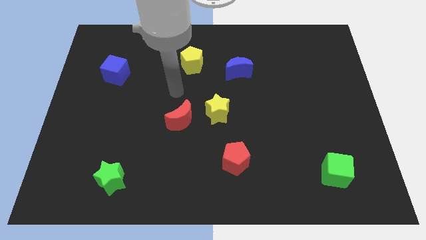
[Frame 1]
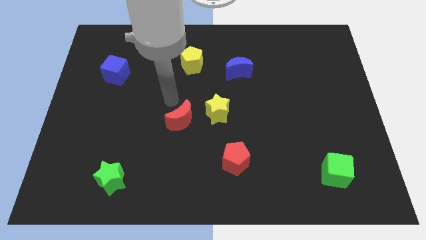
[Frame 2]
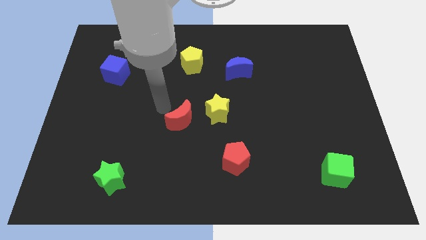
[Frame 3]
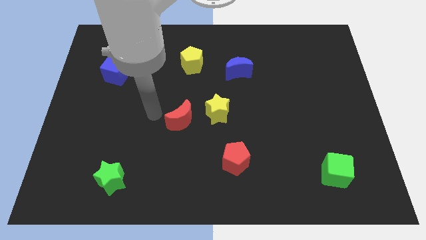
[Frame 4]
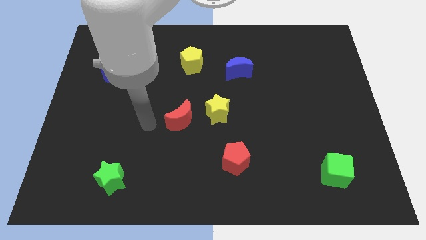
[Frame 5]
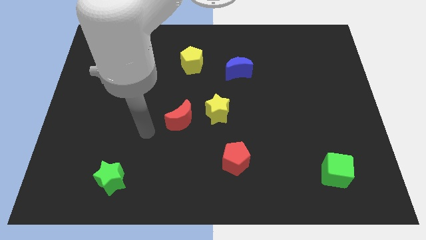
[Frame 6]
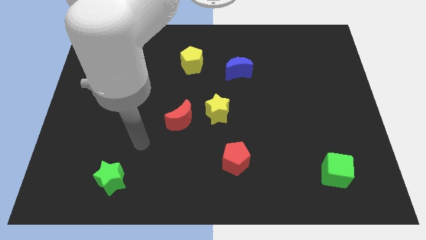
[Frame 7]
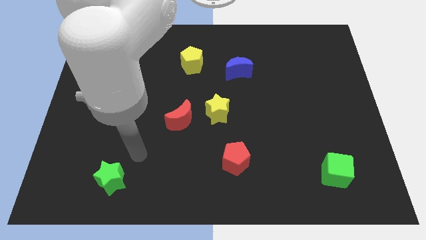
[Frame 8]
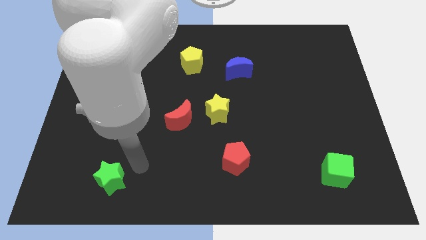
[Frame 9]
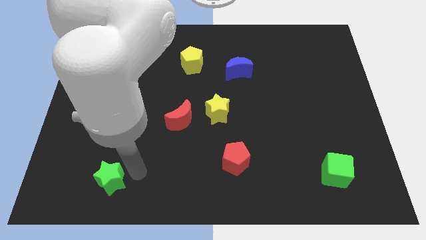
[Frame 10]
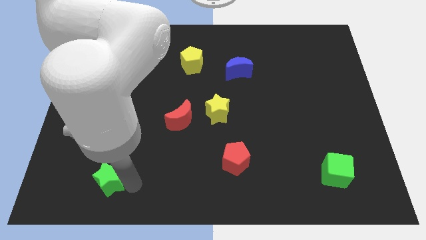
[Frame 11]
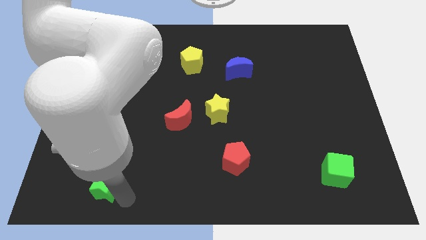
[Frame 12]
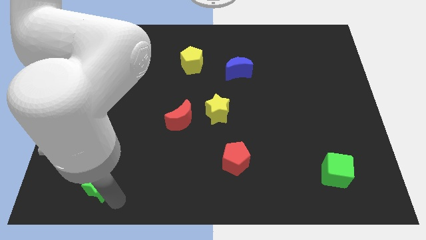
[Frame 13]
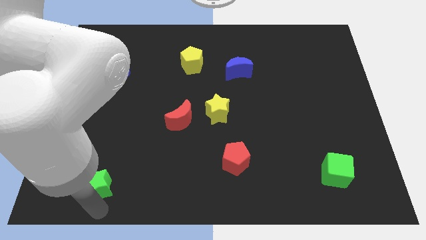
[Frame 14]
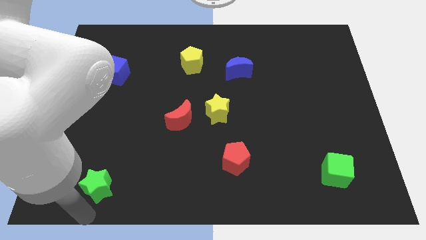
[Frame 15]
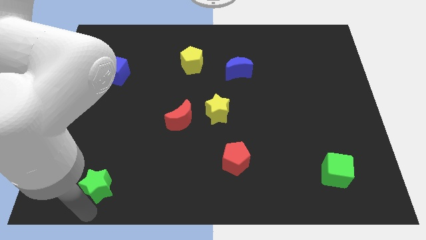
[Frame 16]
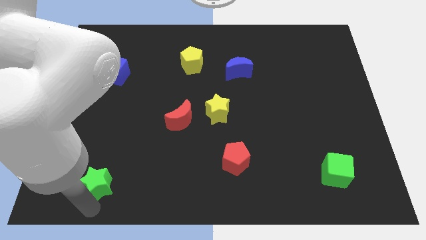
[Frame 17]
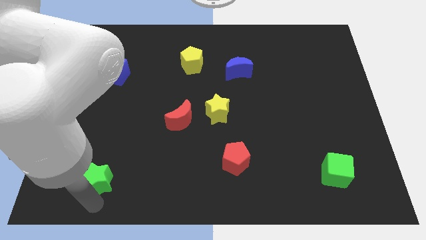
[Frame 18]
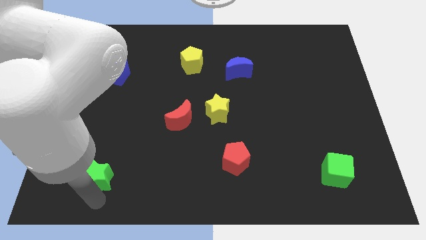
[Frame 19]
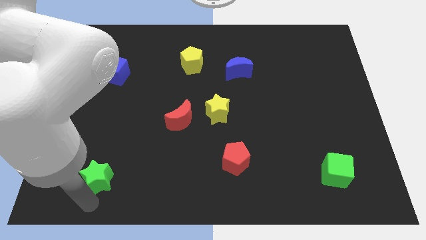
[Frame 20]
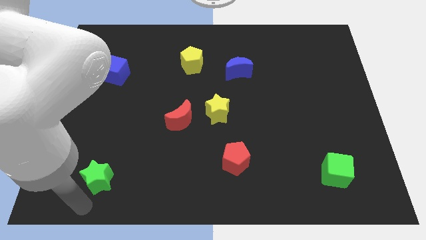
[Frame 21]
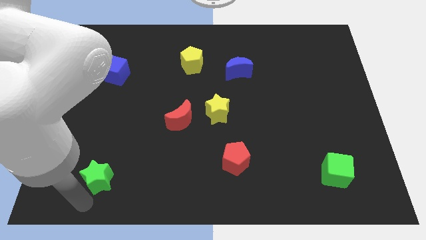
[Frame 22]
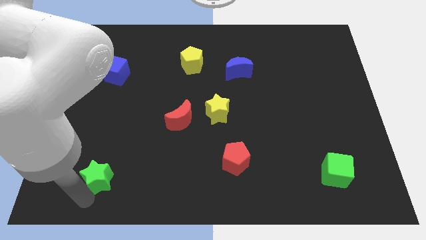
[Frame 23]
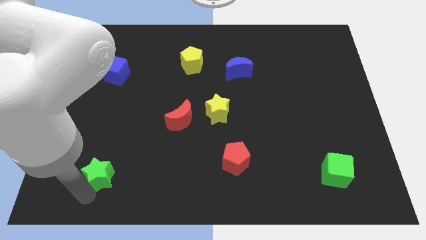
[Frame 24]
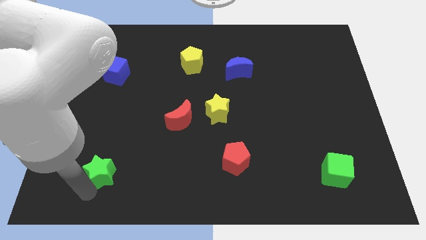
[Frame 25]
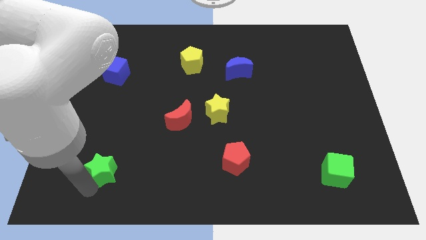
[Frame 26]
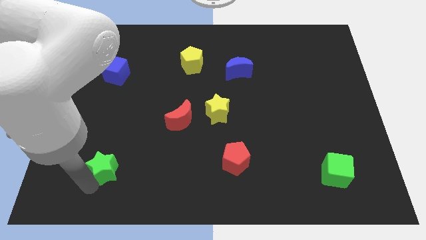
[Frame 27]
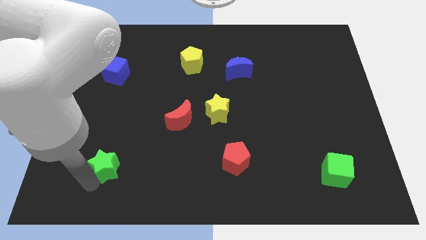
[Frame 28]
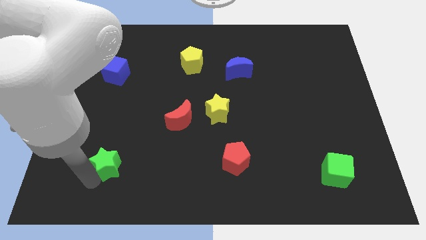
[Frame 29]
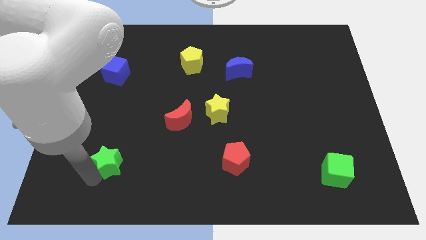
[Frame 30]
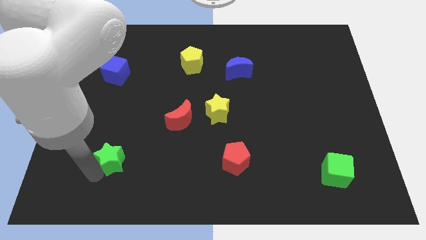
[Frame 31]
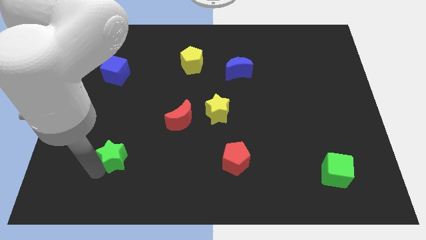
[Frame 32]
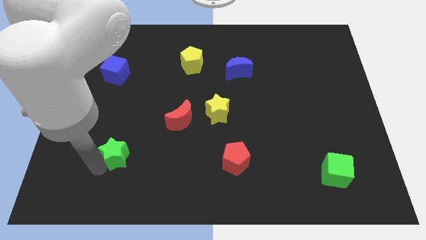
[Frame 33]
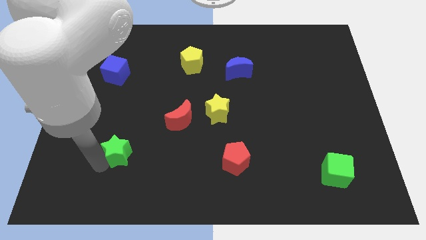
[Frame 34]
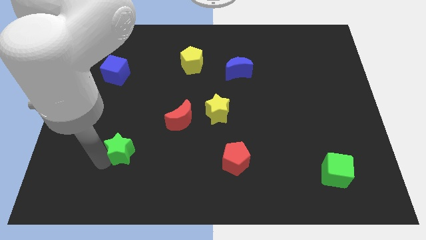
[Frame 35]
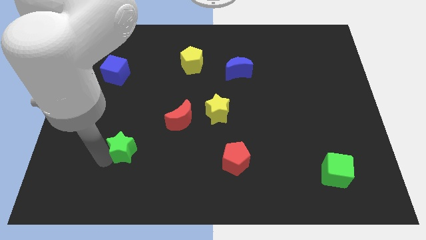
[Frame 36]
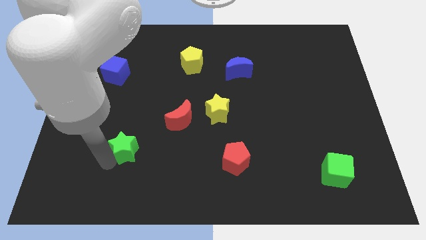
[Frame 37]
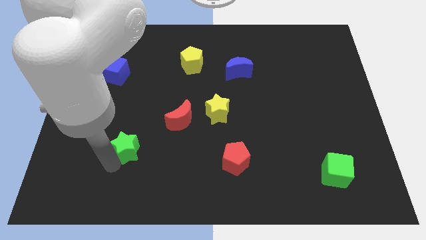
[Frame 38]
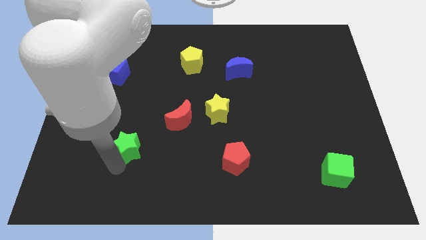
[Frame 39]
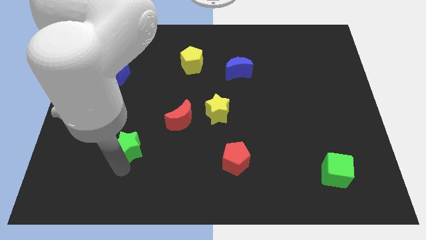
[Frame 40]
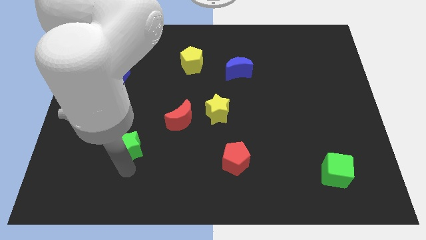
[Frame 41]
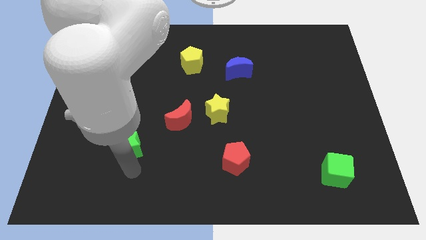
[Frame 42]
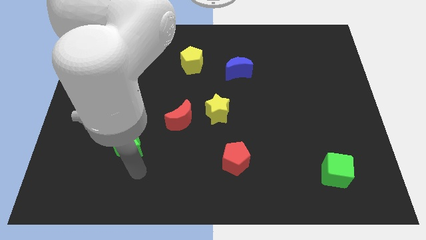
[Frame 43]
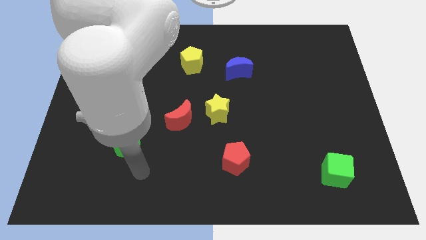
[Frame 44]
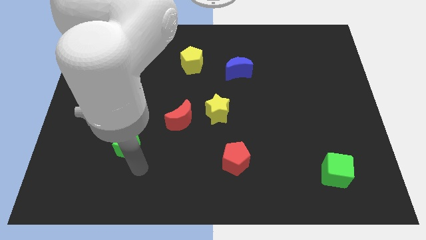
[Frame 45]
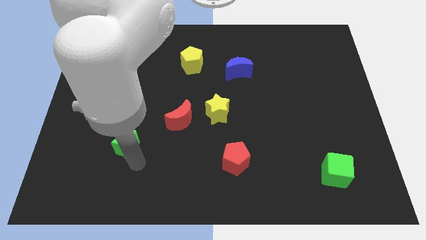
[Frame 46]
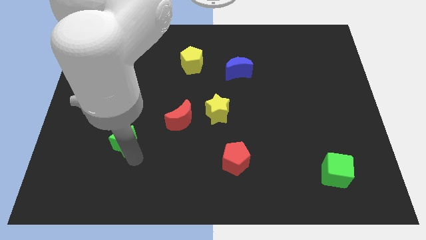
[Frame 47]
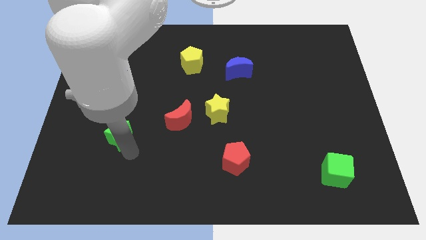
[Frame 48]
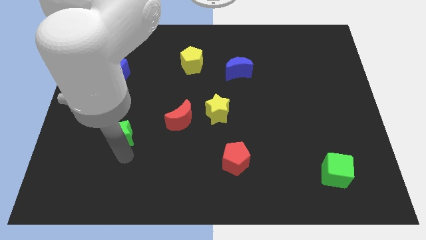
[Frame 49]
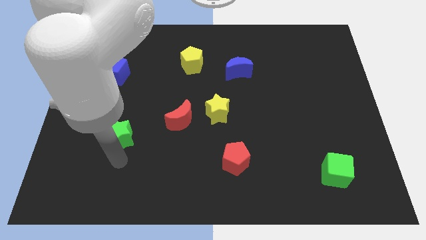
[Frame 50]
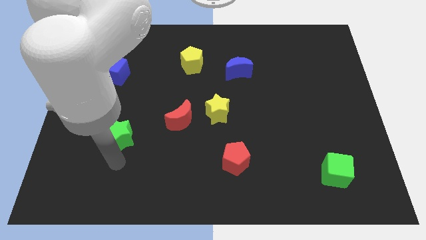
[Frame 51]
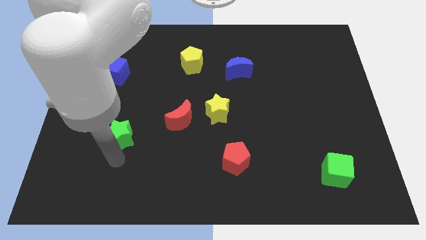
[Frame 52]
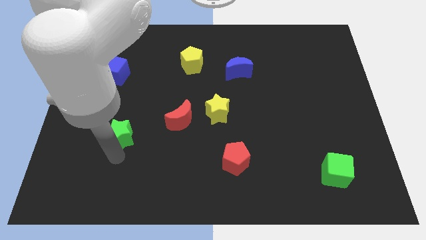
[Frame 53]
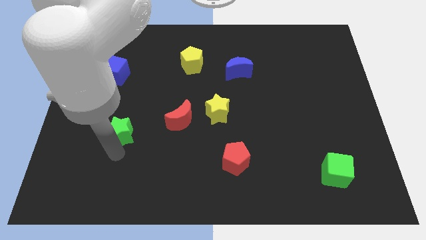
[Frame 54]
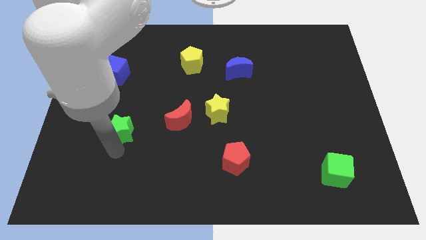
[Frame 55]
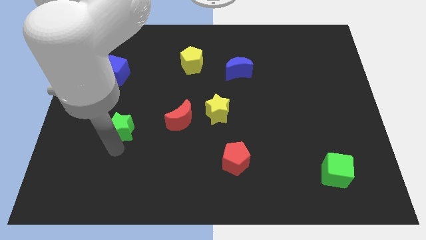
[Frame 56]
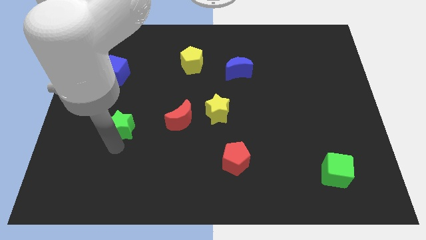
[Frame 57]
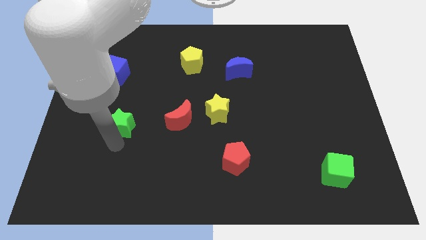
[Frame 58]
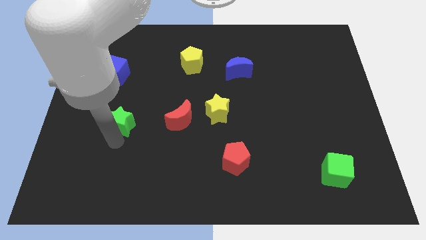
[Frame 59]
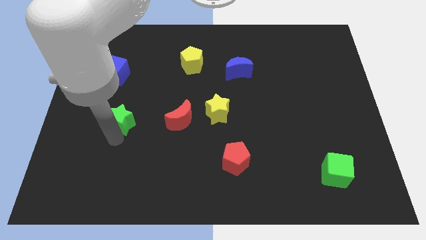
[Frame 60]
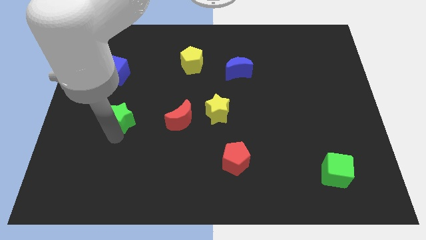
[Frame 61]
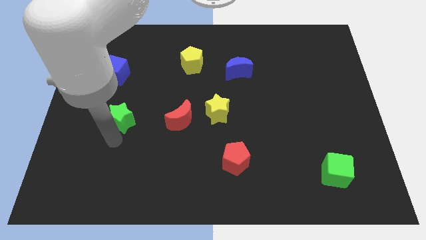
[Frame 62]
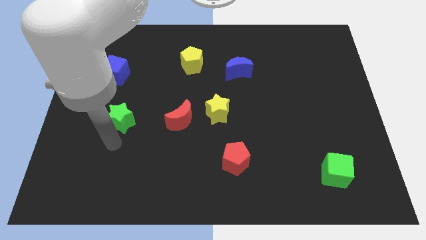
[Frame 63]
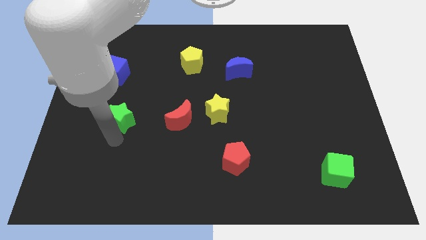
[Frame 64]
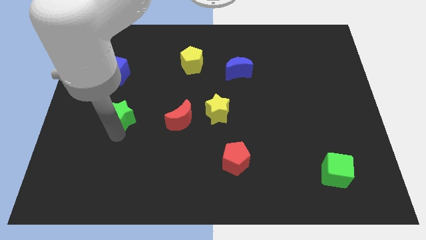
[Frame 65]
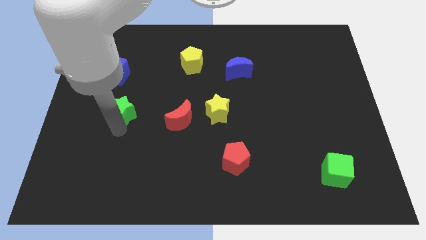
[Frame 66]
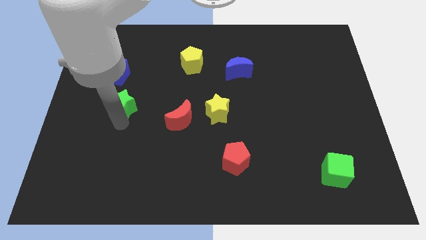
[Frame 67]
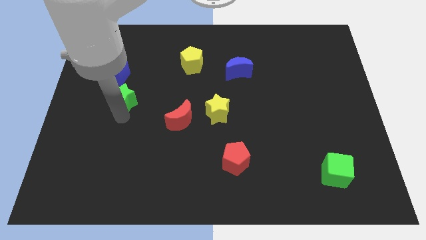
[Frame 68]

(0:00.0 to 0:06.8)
put the green star to the bottom right of the blue cube
